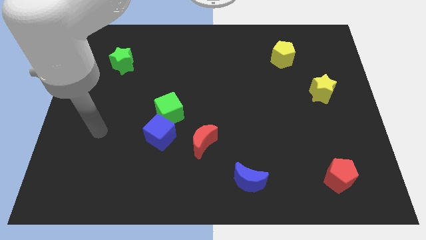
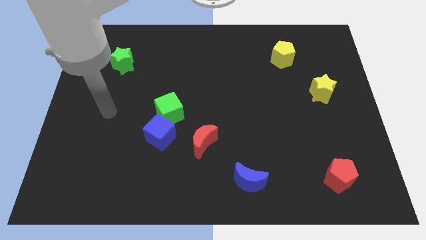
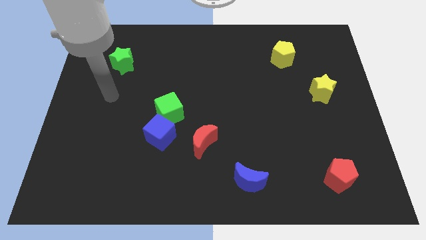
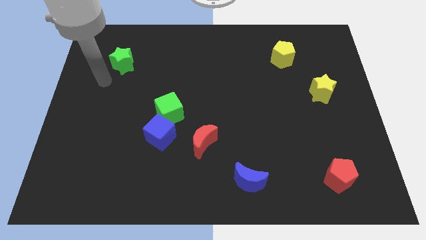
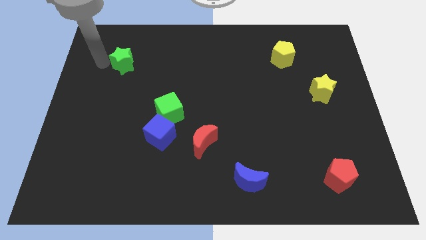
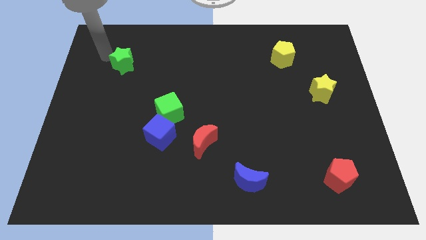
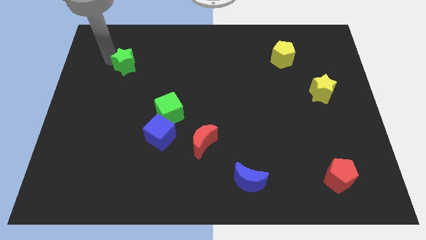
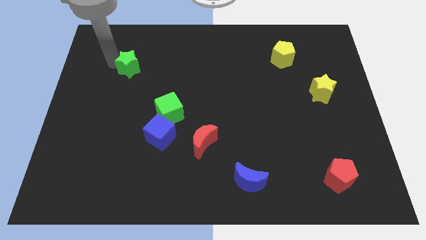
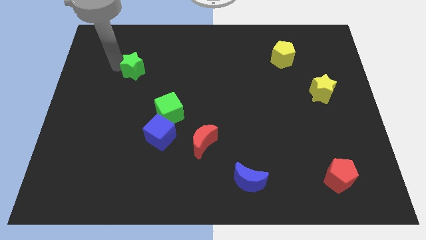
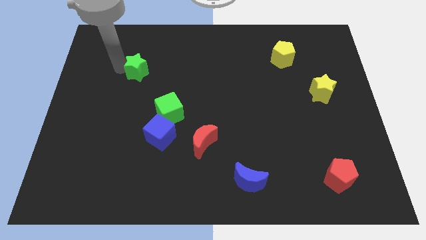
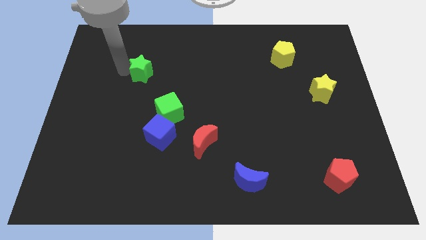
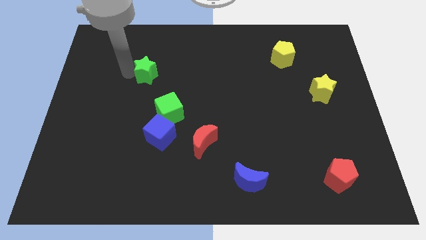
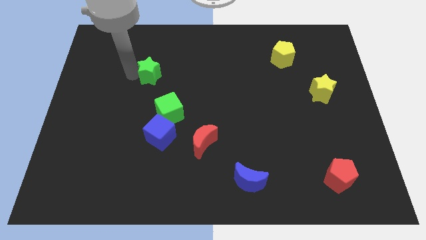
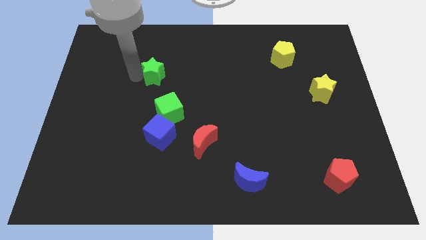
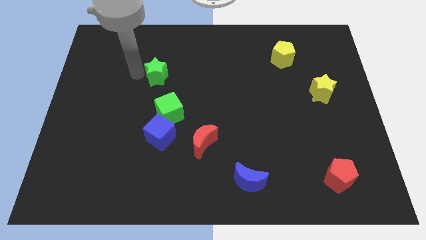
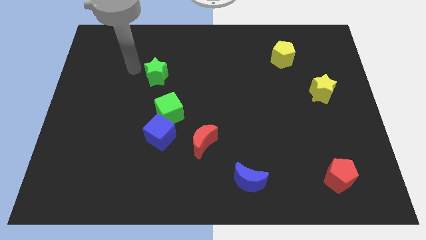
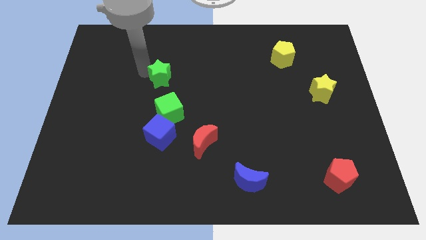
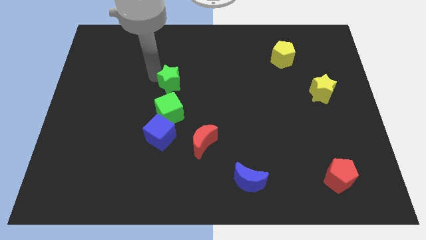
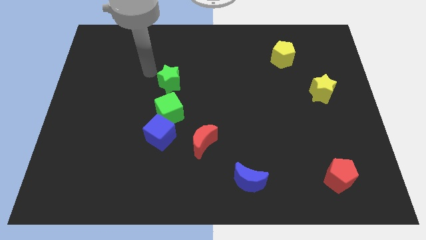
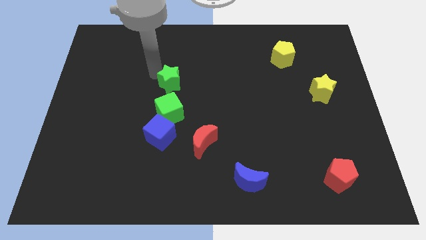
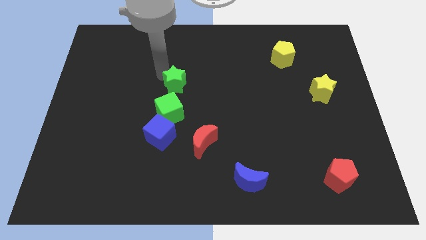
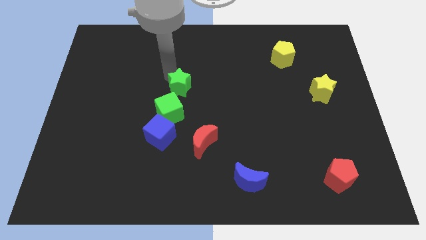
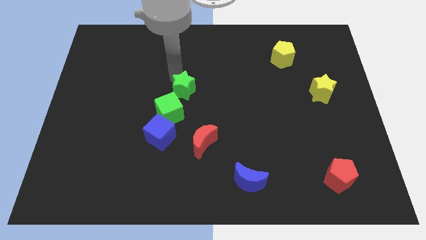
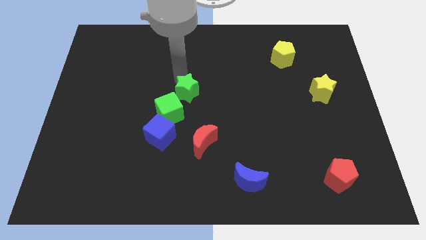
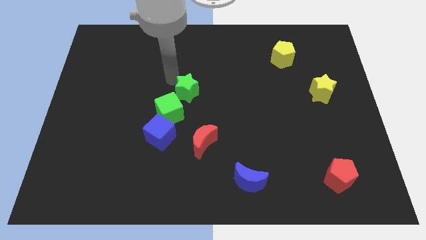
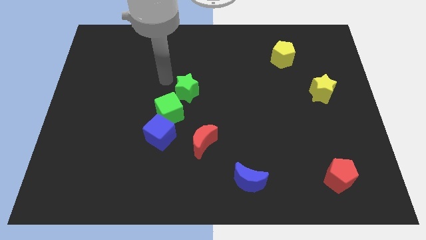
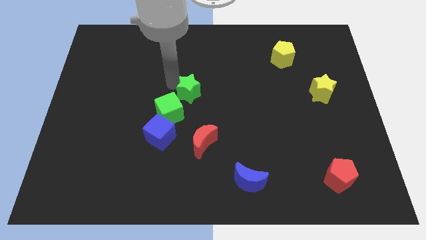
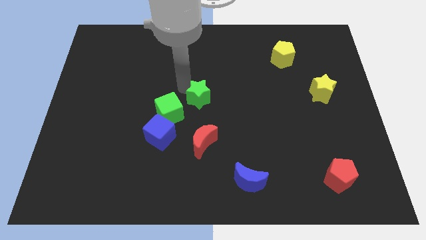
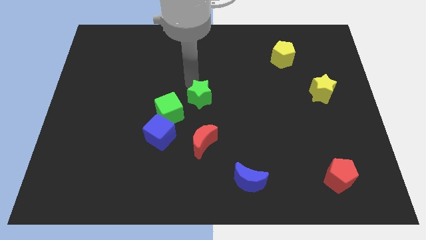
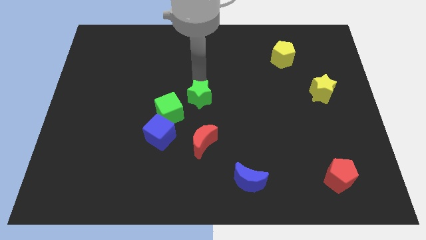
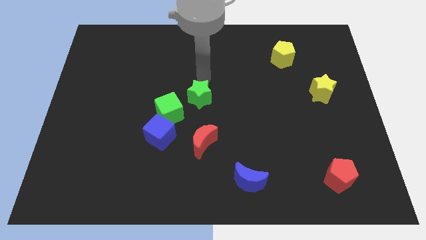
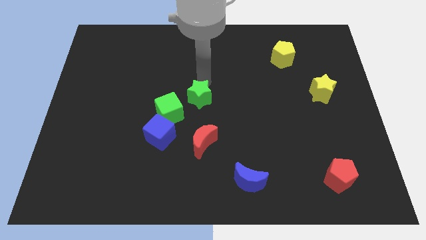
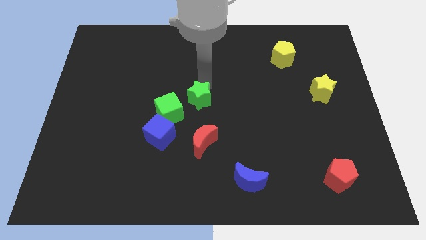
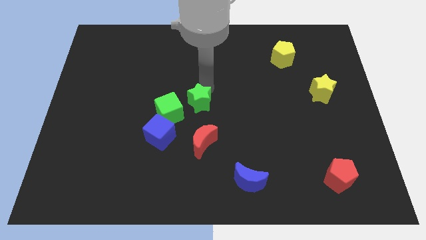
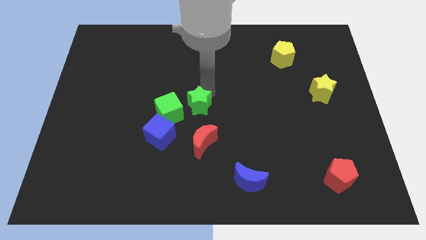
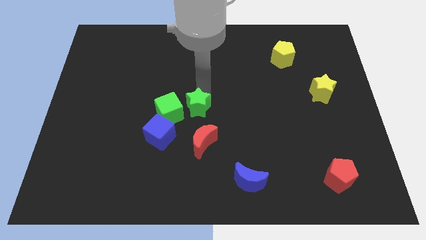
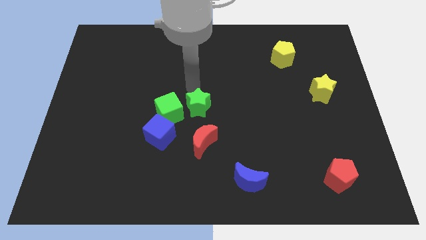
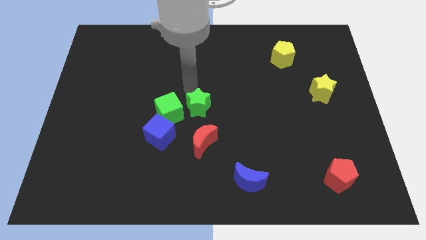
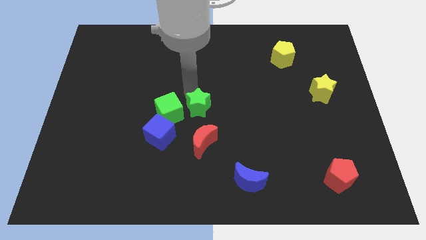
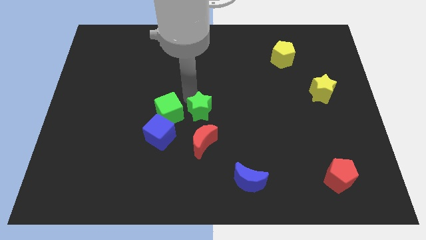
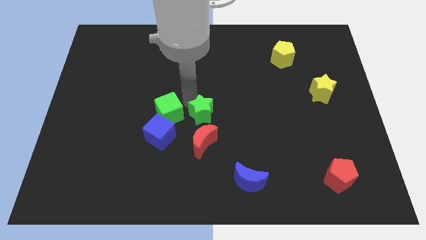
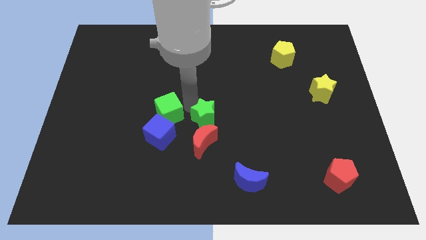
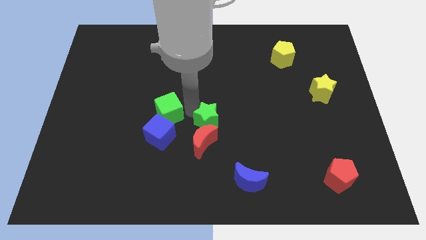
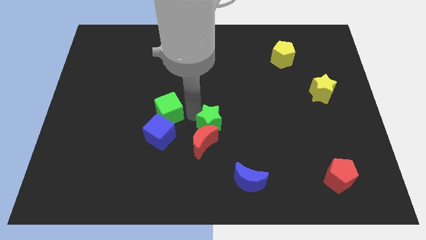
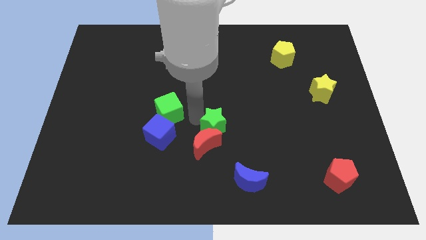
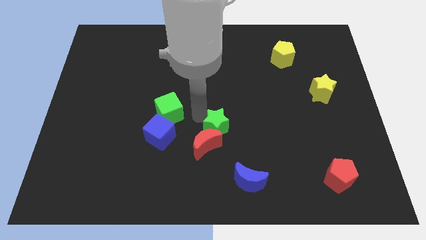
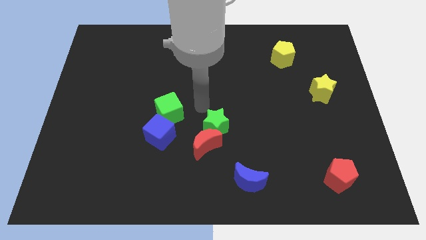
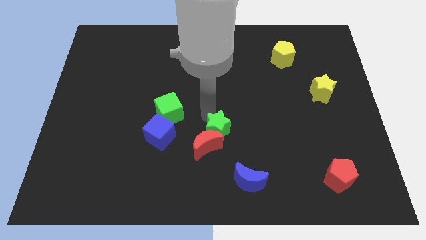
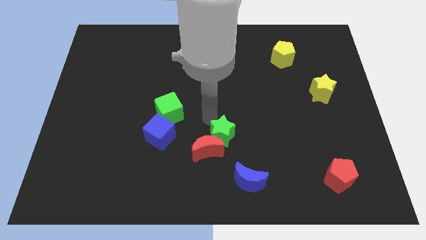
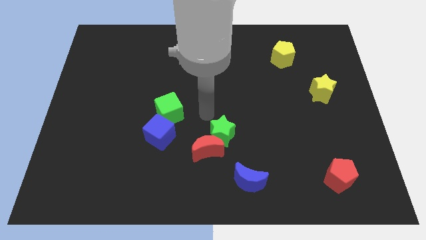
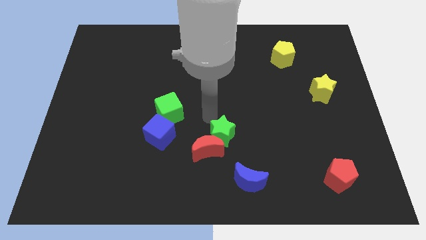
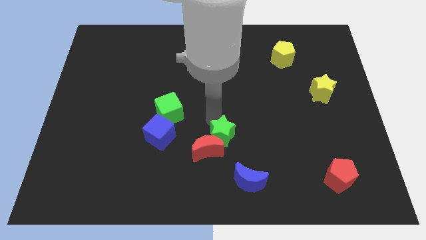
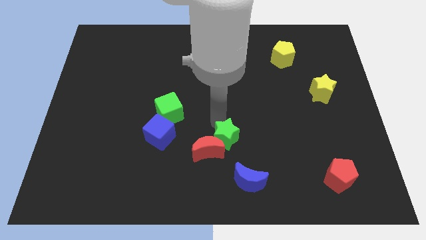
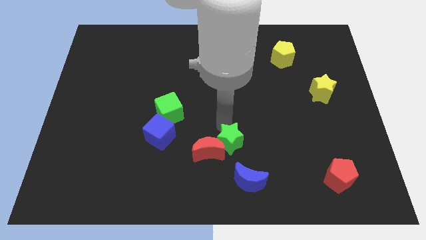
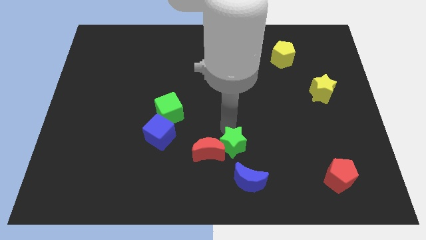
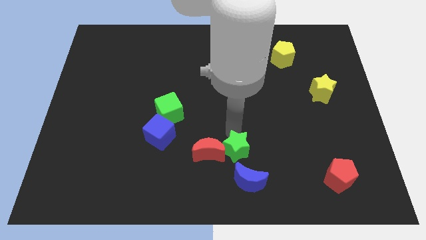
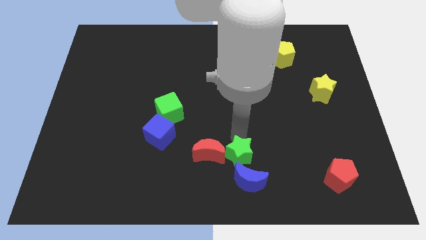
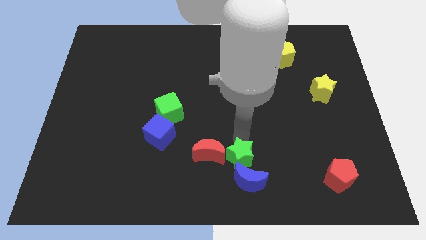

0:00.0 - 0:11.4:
move the green star next to the blue moon

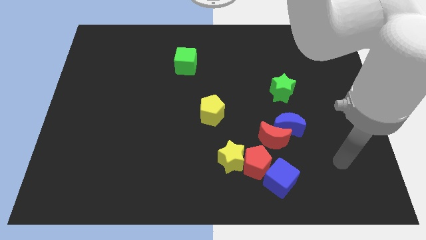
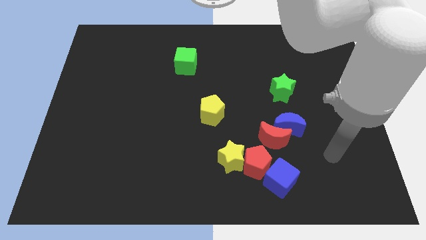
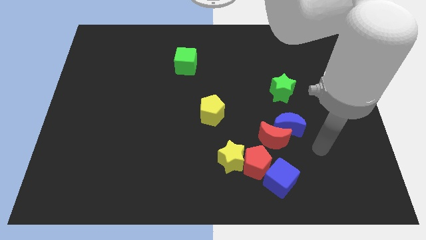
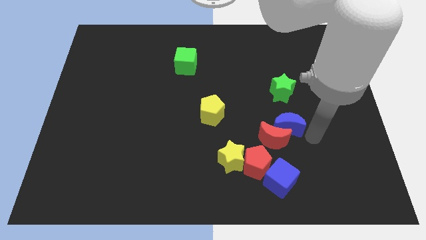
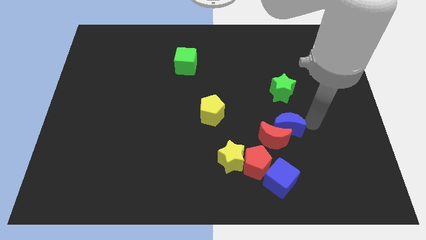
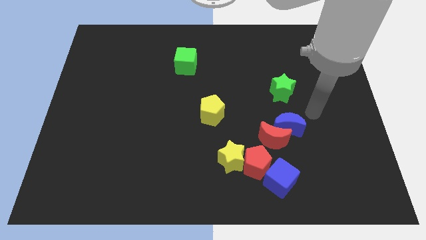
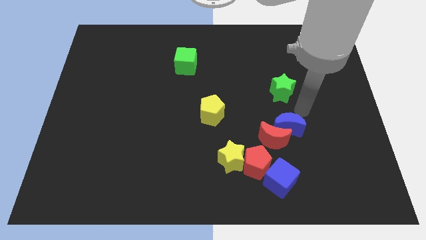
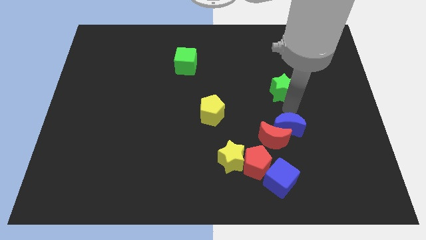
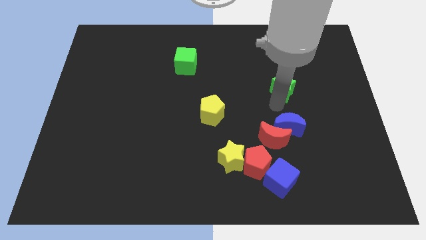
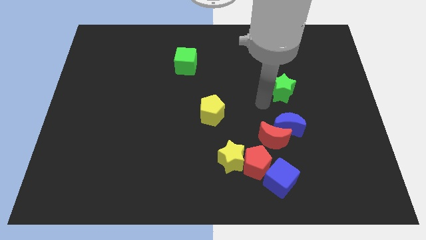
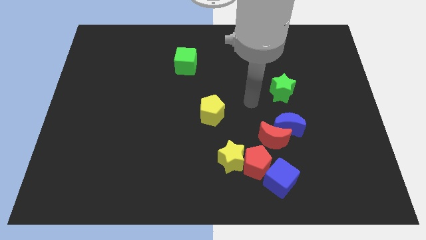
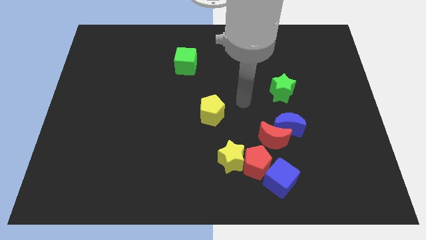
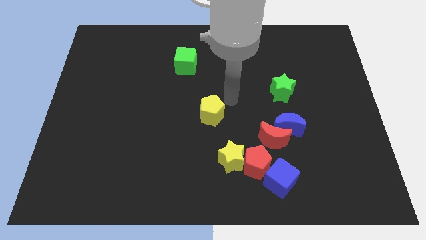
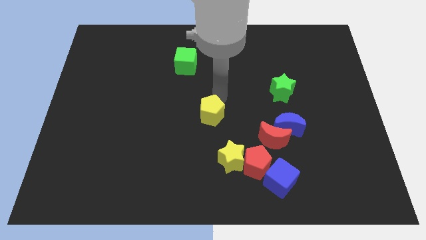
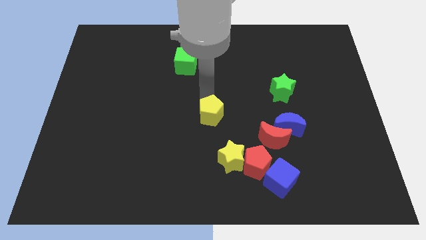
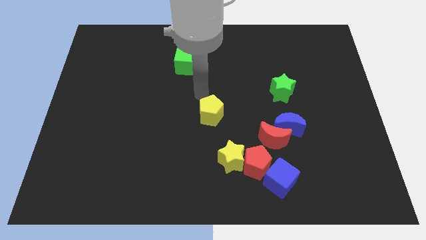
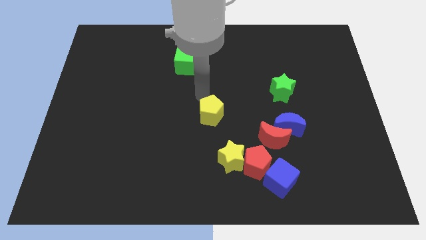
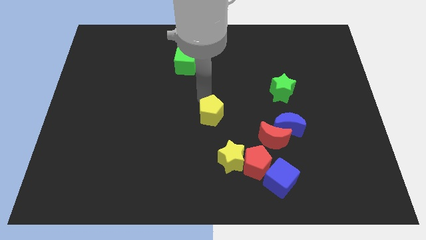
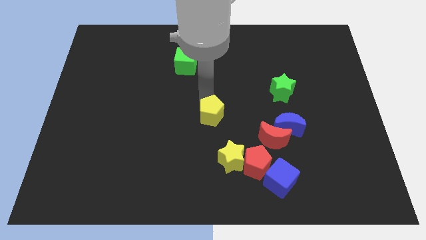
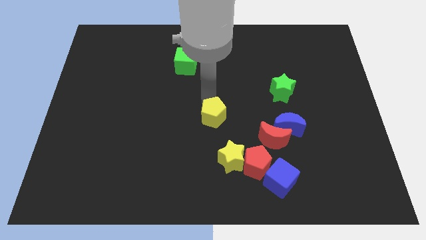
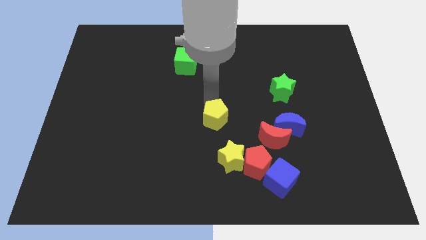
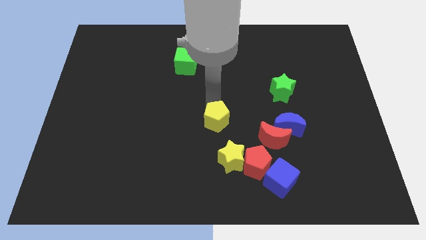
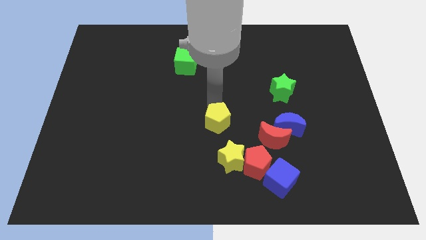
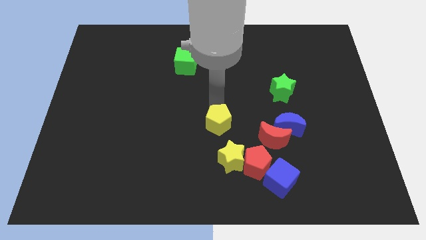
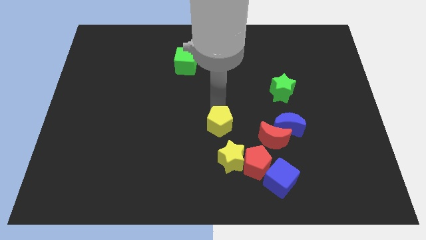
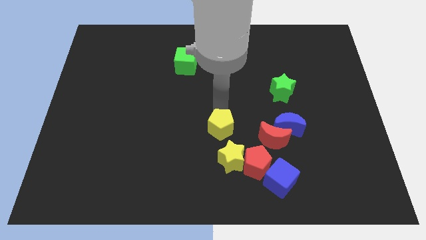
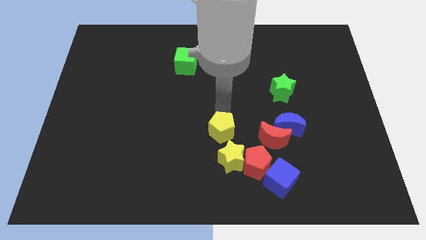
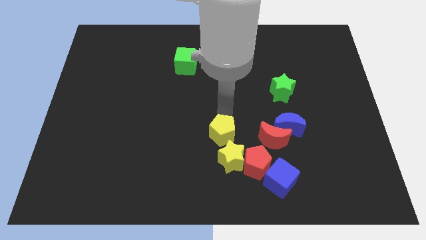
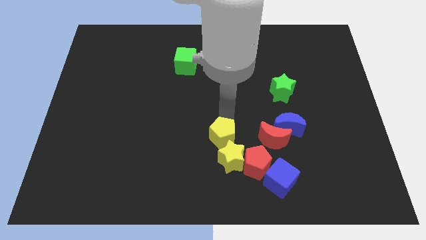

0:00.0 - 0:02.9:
move the yellow pentagon close to the yellow star

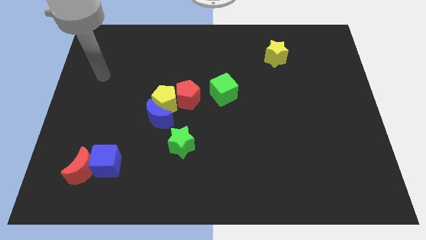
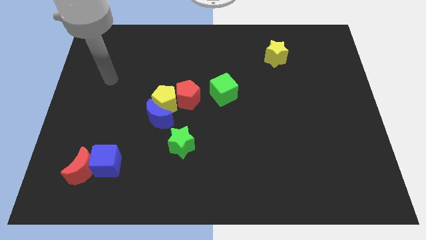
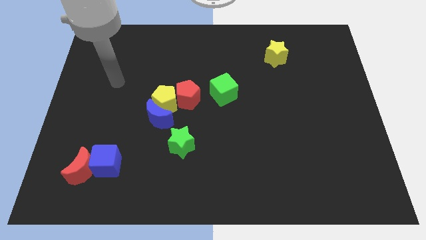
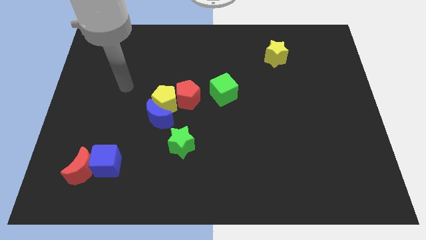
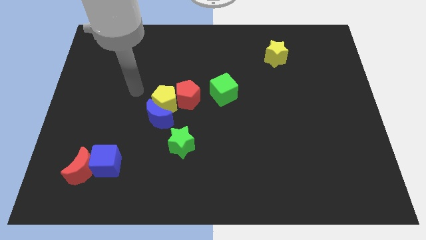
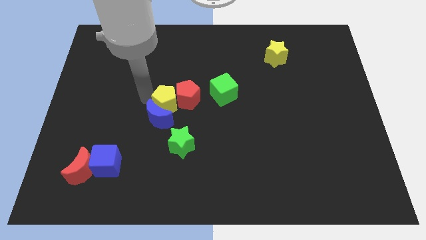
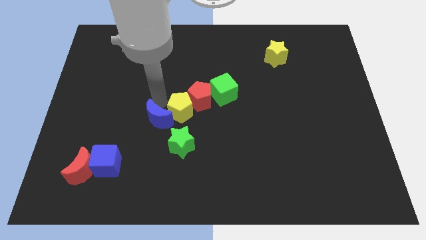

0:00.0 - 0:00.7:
put the red pentagon close to the green cube
